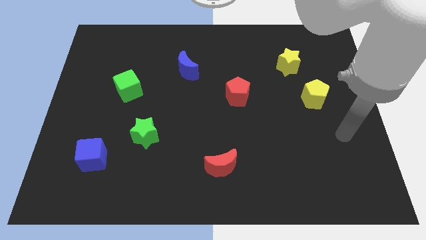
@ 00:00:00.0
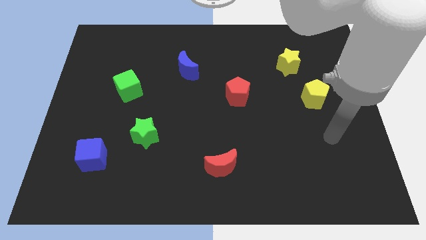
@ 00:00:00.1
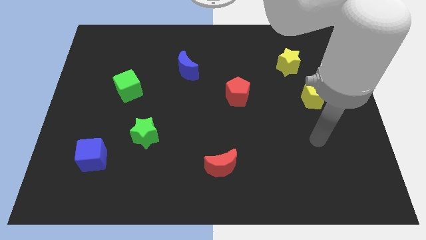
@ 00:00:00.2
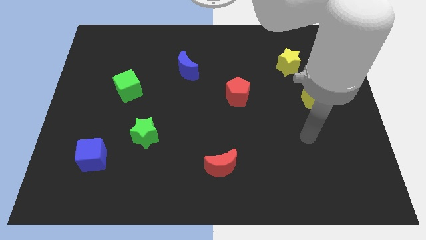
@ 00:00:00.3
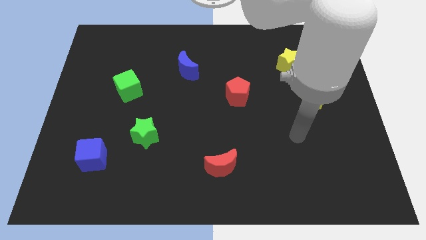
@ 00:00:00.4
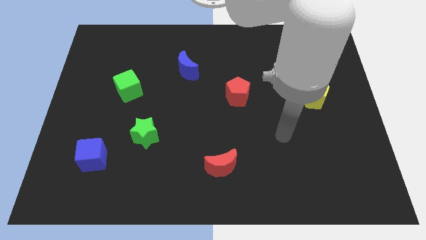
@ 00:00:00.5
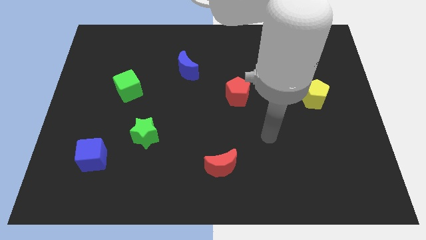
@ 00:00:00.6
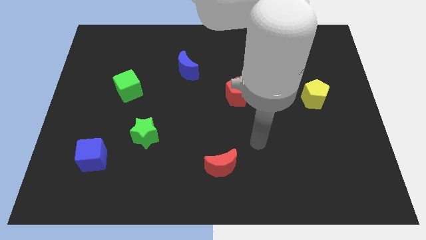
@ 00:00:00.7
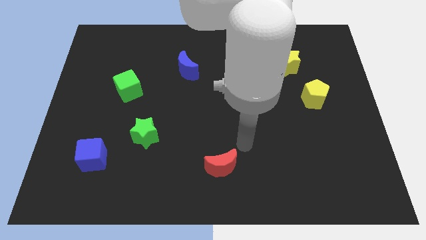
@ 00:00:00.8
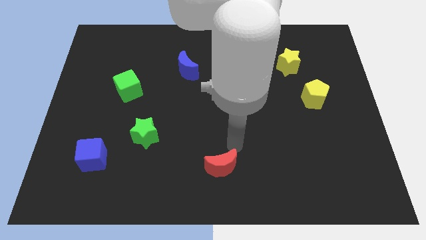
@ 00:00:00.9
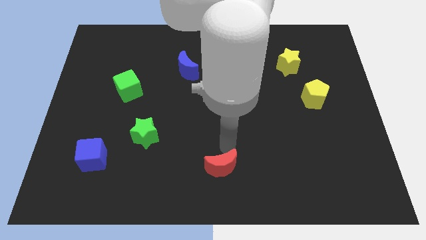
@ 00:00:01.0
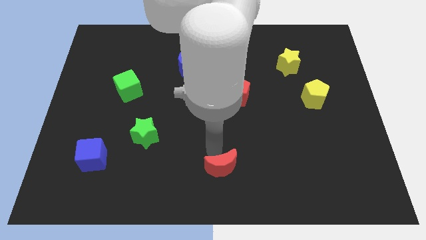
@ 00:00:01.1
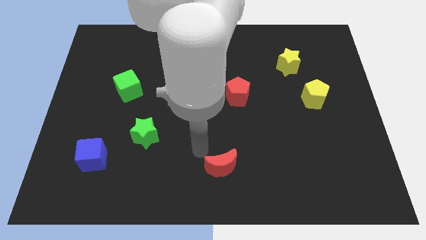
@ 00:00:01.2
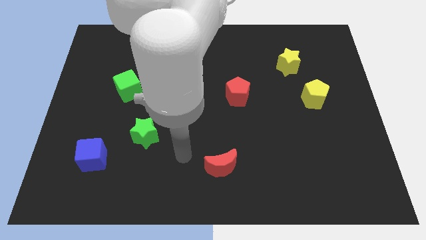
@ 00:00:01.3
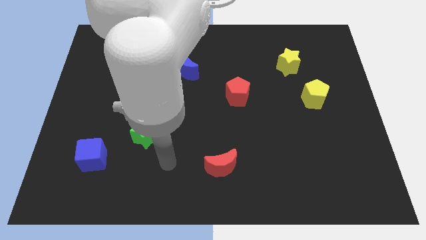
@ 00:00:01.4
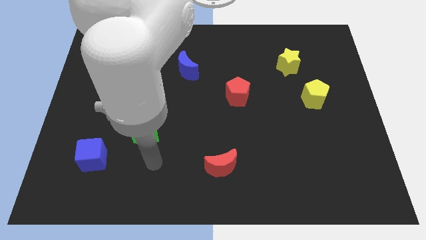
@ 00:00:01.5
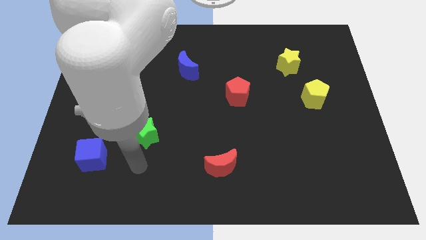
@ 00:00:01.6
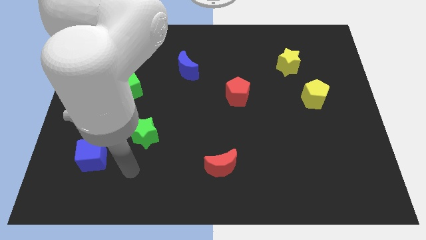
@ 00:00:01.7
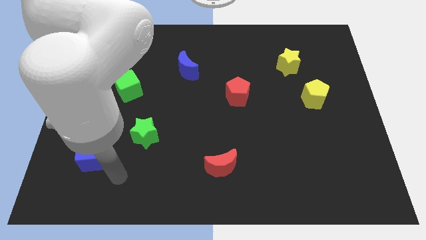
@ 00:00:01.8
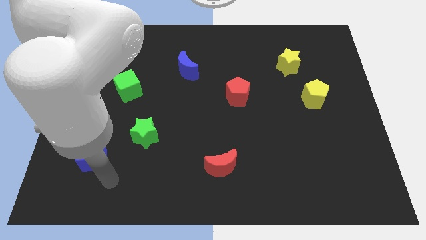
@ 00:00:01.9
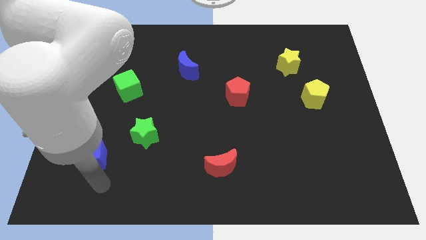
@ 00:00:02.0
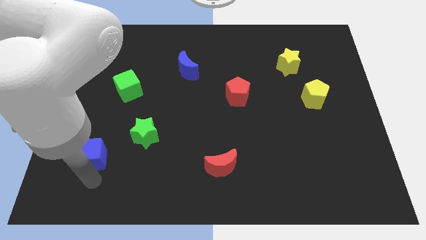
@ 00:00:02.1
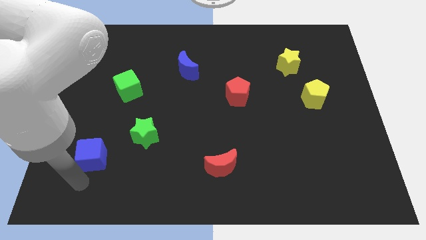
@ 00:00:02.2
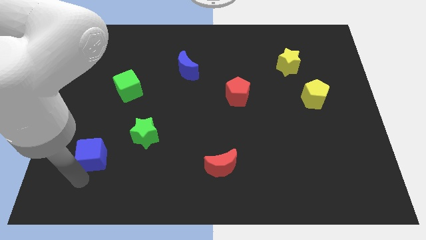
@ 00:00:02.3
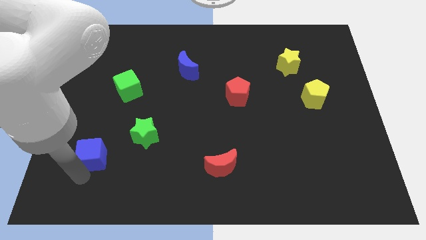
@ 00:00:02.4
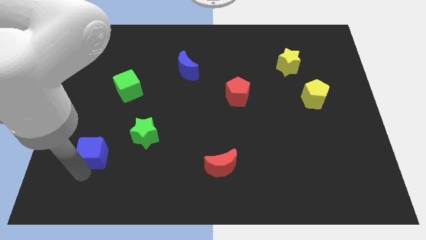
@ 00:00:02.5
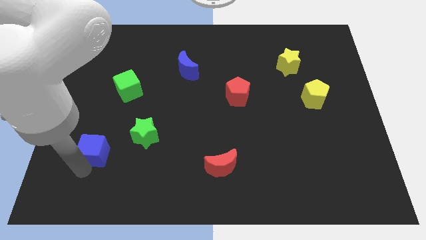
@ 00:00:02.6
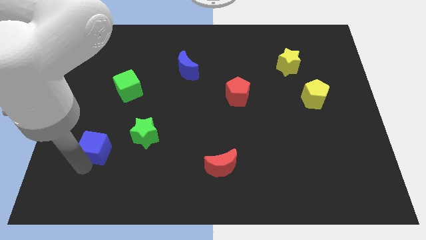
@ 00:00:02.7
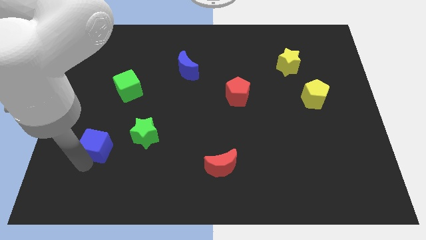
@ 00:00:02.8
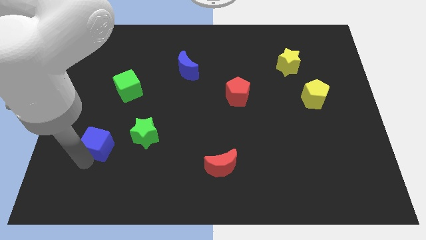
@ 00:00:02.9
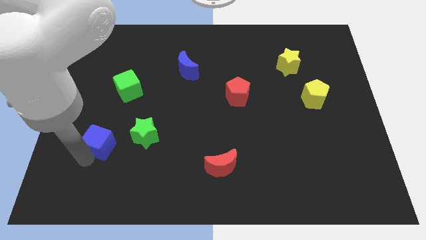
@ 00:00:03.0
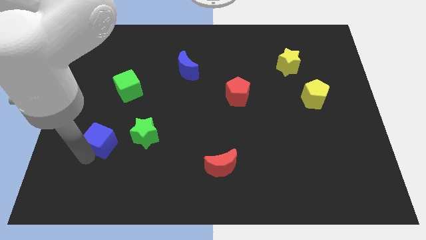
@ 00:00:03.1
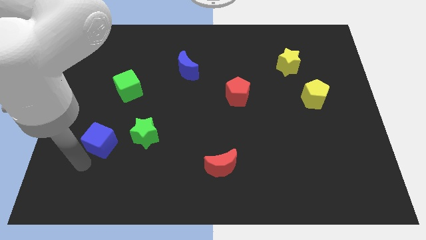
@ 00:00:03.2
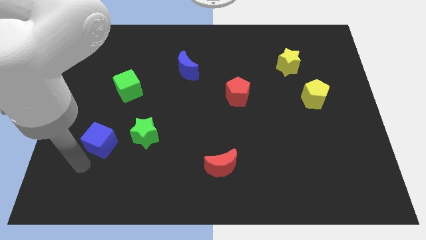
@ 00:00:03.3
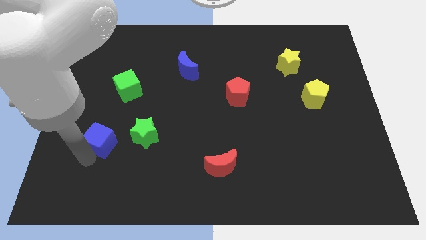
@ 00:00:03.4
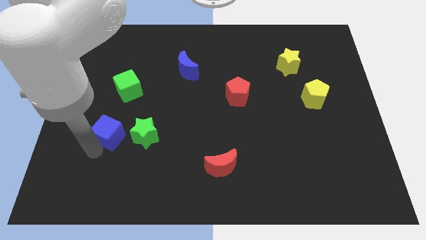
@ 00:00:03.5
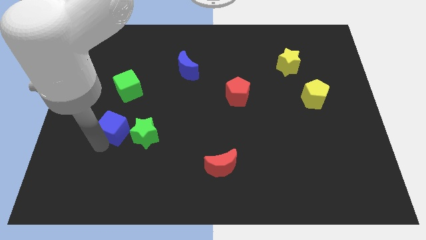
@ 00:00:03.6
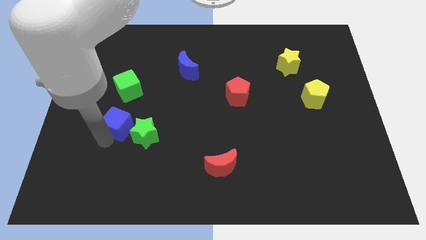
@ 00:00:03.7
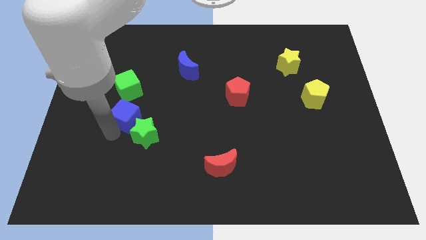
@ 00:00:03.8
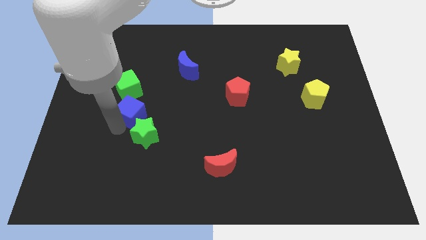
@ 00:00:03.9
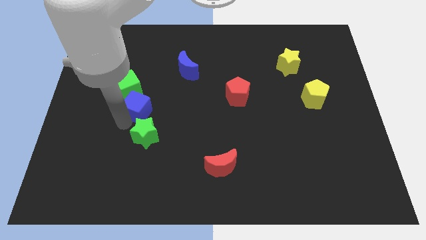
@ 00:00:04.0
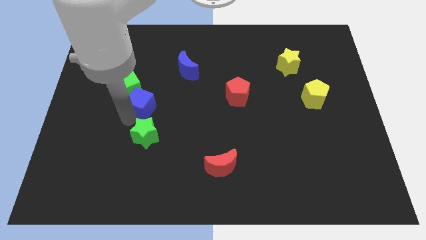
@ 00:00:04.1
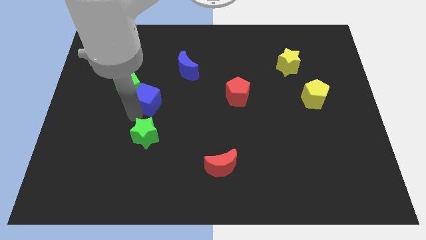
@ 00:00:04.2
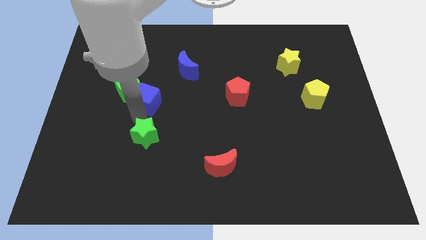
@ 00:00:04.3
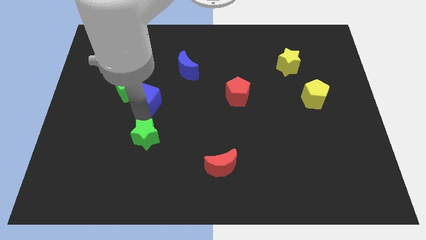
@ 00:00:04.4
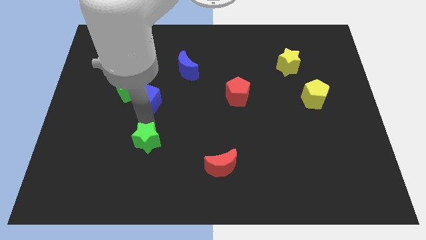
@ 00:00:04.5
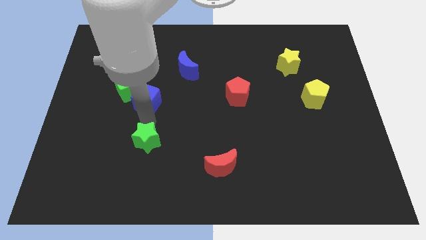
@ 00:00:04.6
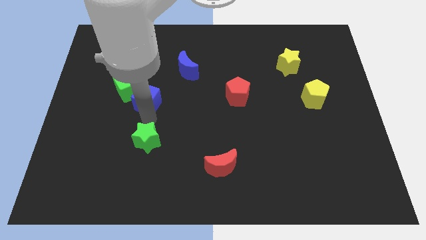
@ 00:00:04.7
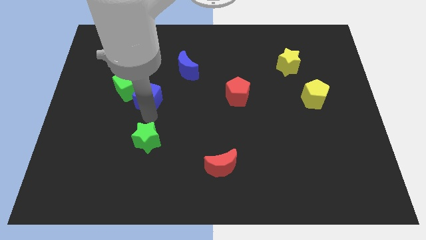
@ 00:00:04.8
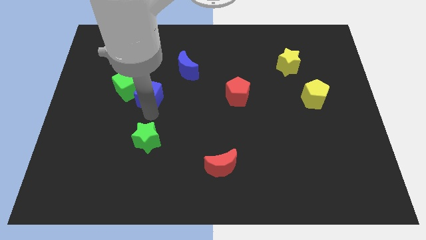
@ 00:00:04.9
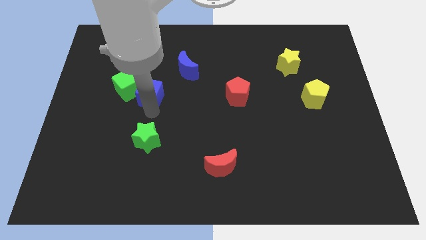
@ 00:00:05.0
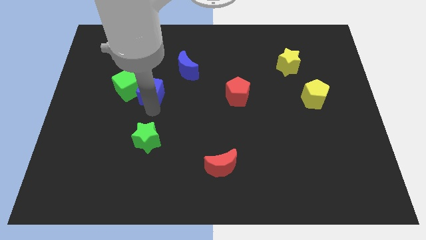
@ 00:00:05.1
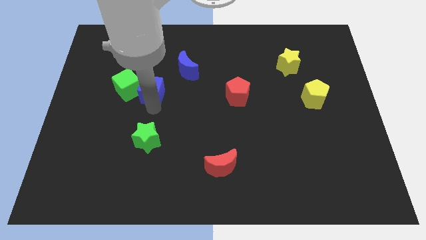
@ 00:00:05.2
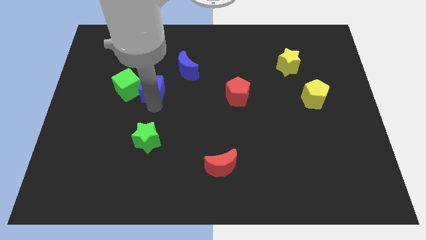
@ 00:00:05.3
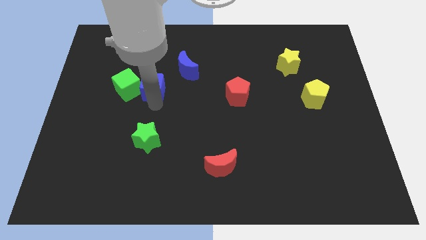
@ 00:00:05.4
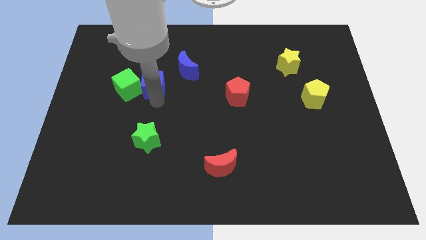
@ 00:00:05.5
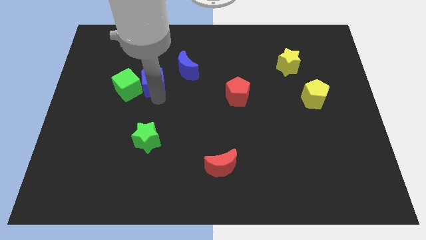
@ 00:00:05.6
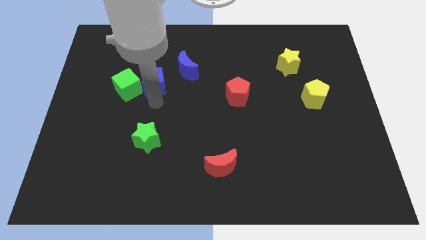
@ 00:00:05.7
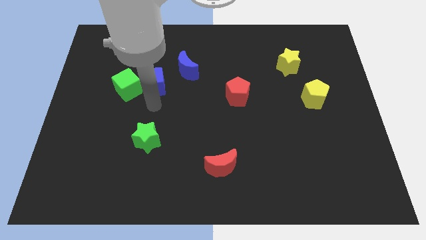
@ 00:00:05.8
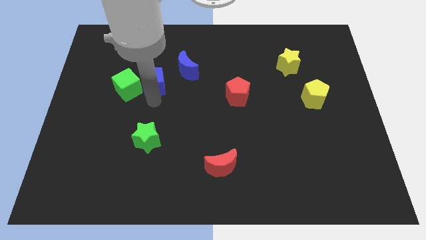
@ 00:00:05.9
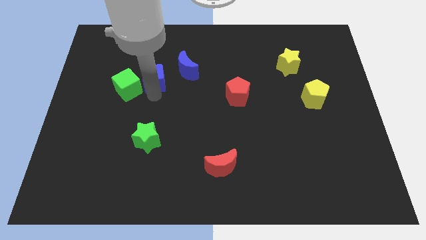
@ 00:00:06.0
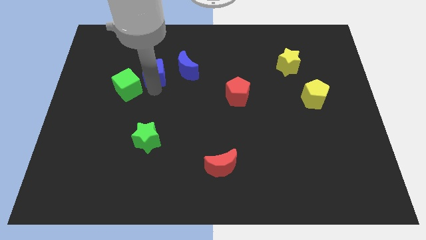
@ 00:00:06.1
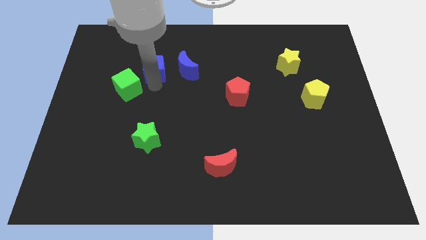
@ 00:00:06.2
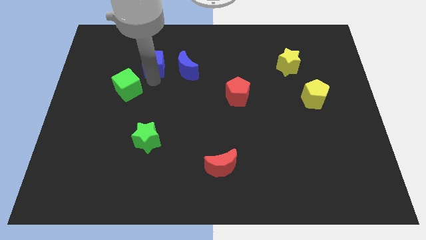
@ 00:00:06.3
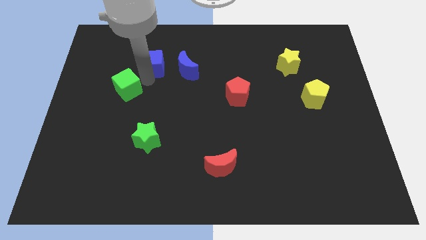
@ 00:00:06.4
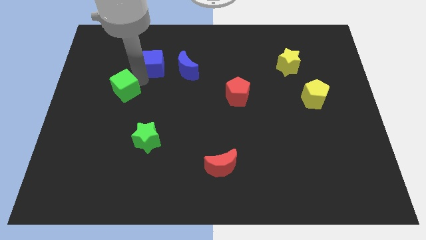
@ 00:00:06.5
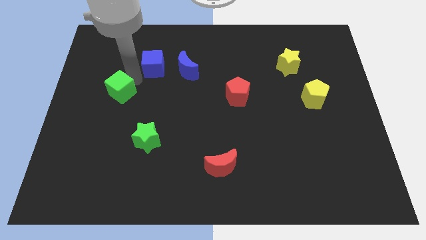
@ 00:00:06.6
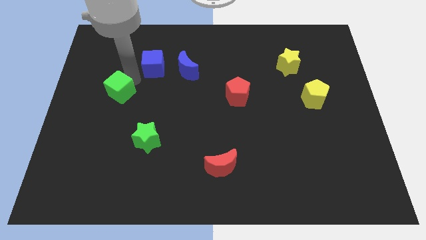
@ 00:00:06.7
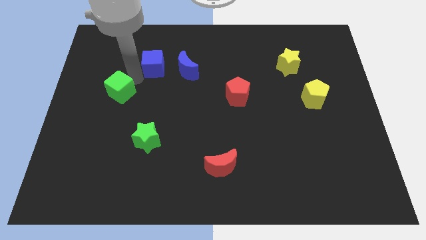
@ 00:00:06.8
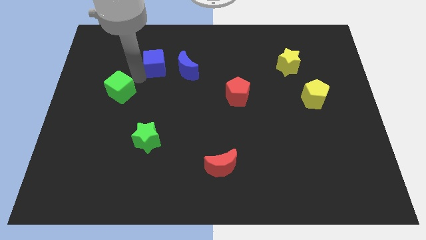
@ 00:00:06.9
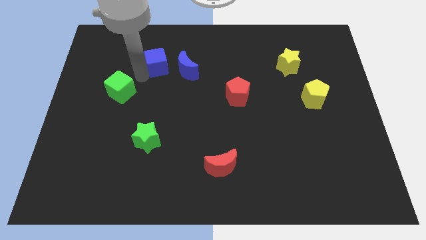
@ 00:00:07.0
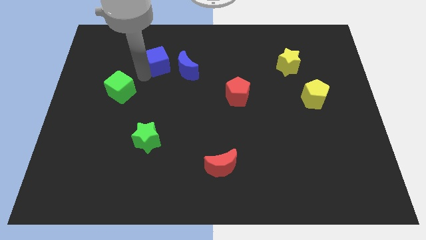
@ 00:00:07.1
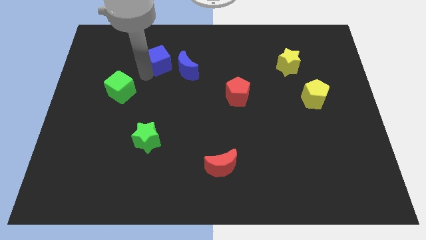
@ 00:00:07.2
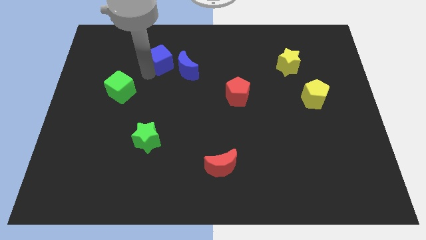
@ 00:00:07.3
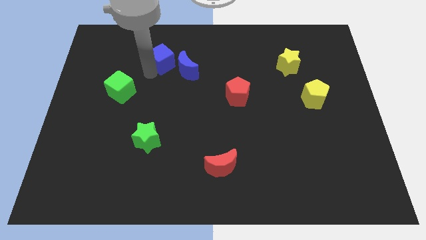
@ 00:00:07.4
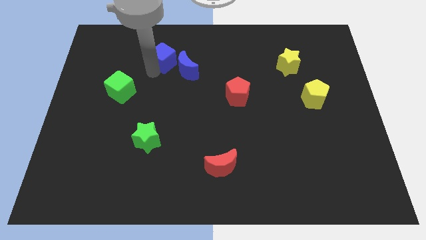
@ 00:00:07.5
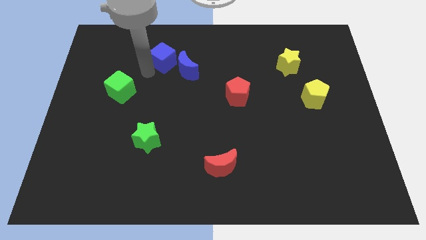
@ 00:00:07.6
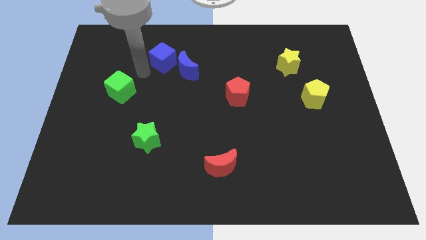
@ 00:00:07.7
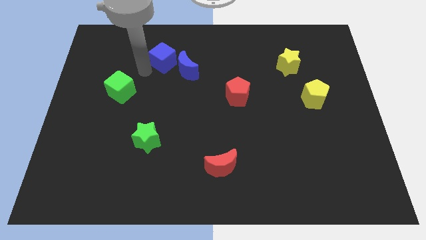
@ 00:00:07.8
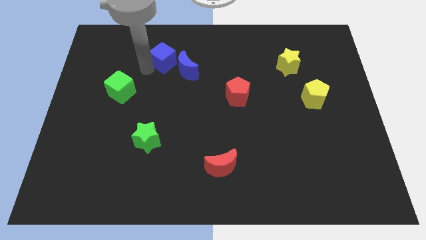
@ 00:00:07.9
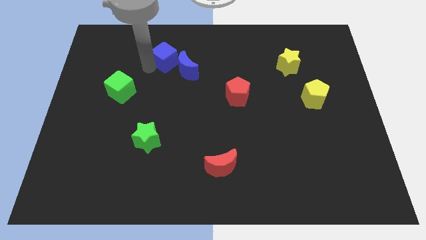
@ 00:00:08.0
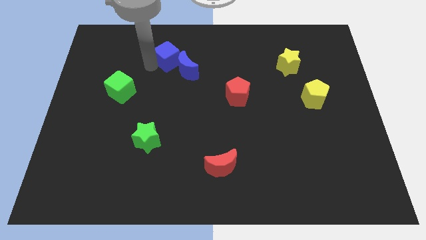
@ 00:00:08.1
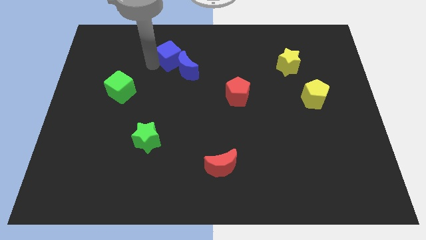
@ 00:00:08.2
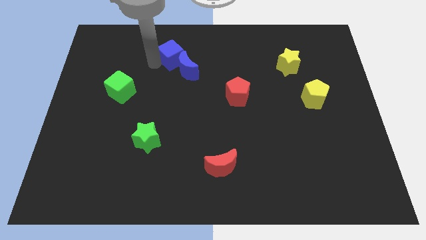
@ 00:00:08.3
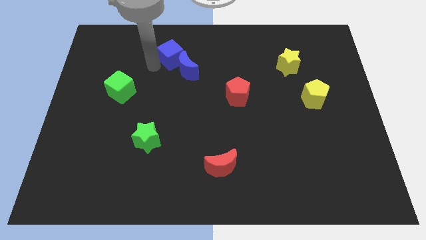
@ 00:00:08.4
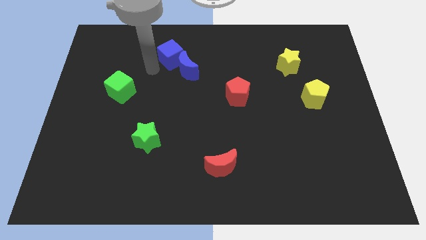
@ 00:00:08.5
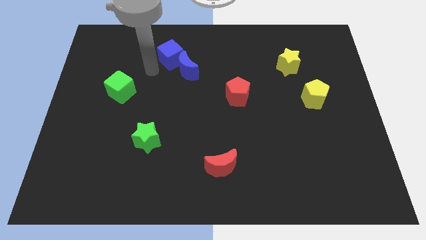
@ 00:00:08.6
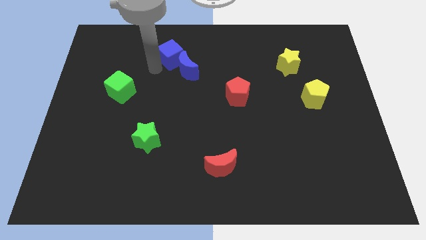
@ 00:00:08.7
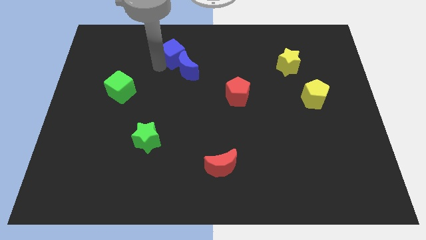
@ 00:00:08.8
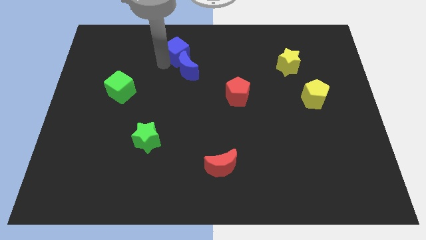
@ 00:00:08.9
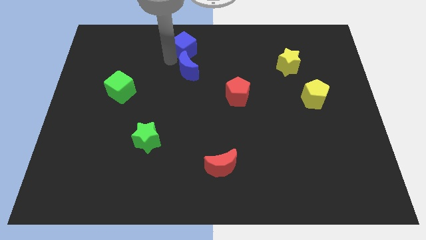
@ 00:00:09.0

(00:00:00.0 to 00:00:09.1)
push the blue cube to the top side
